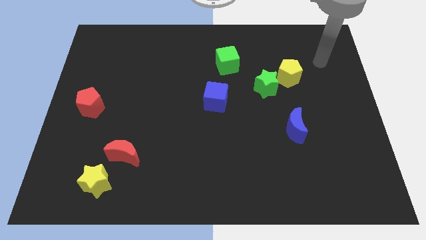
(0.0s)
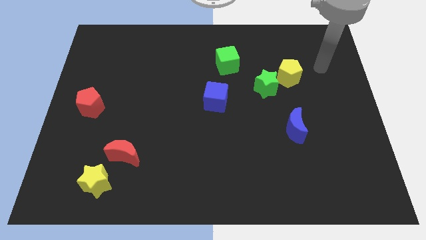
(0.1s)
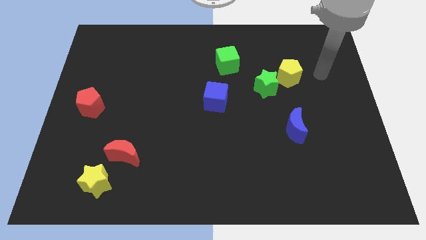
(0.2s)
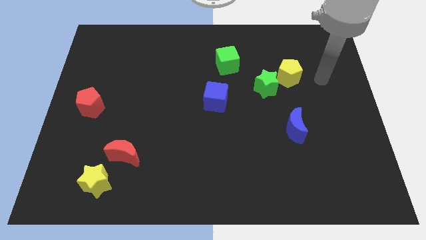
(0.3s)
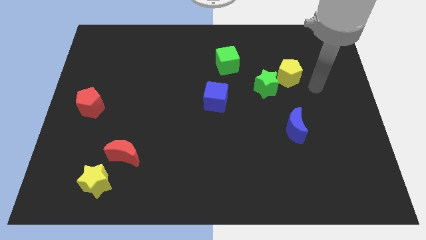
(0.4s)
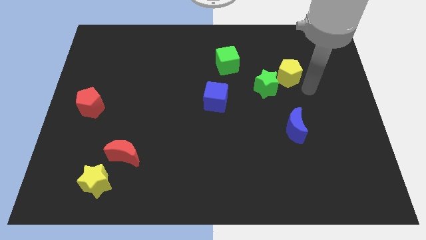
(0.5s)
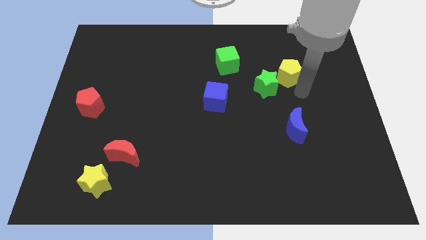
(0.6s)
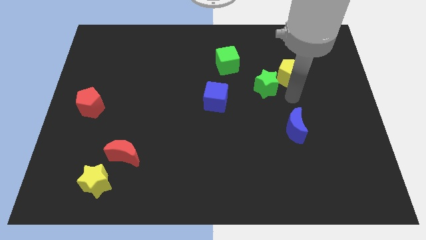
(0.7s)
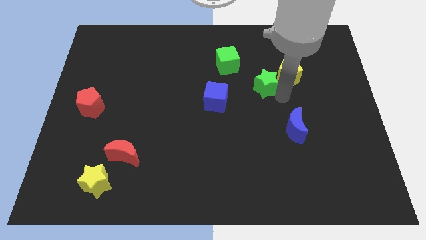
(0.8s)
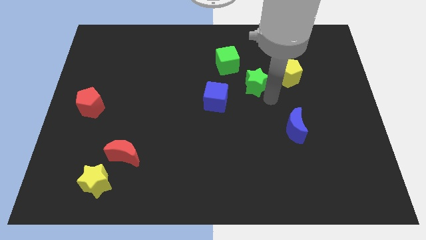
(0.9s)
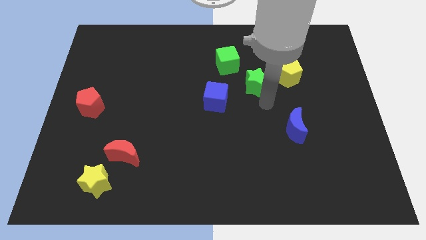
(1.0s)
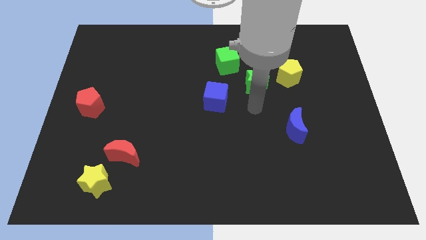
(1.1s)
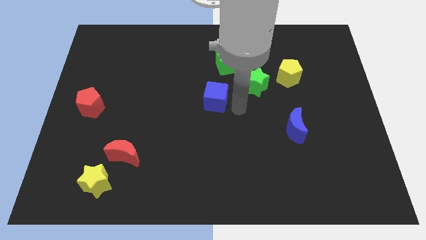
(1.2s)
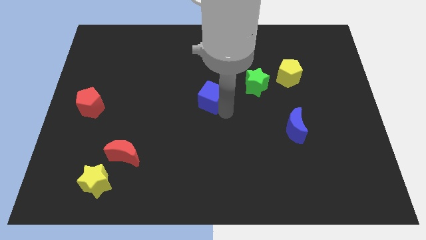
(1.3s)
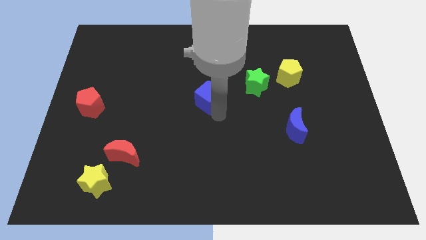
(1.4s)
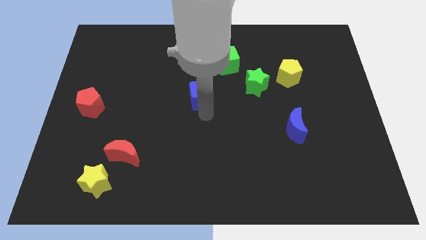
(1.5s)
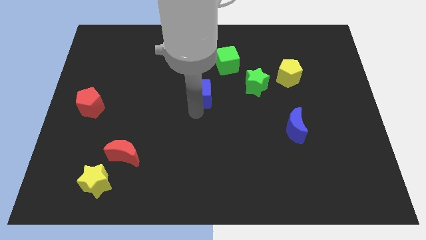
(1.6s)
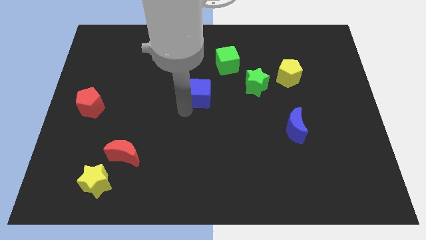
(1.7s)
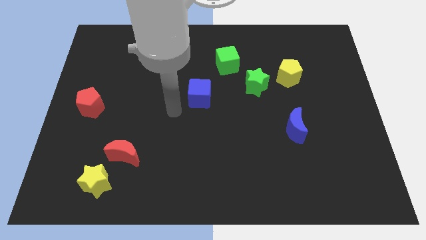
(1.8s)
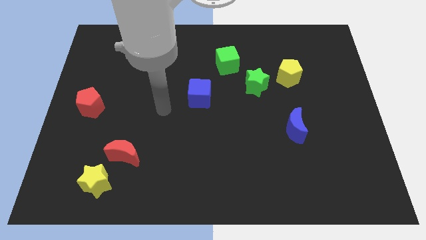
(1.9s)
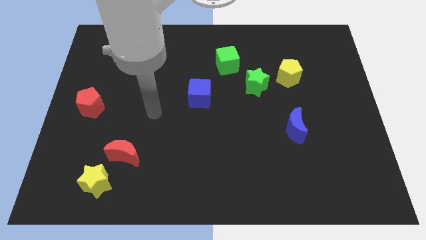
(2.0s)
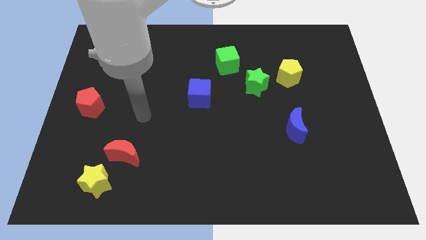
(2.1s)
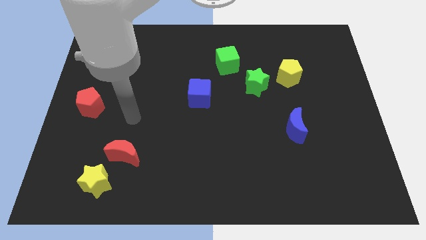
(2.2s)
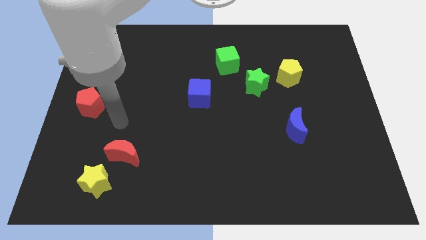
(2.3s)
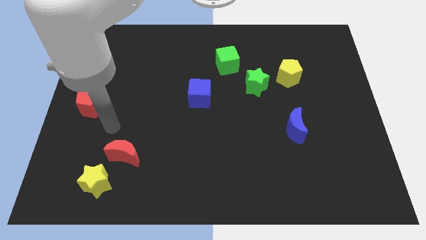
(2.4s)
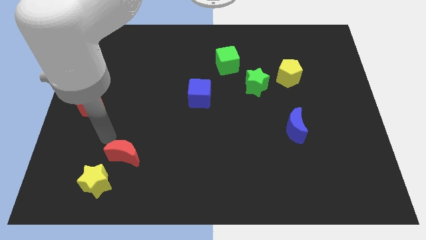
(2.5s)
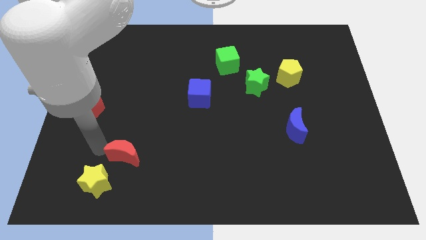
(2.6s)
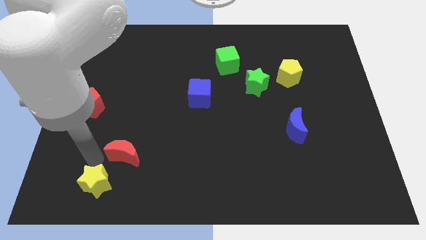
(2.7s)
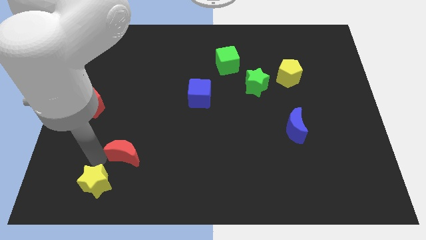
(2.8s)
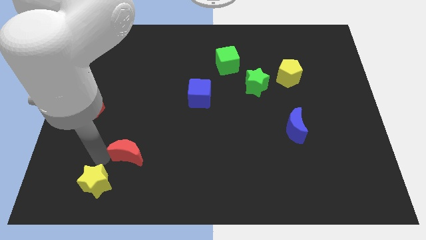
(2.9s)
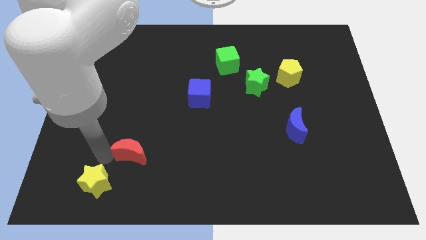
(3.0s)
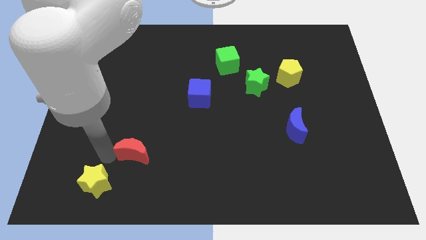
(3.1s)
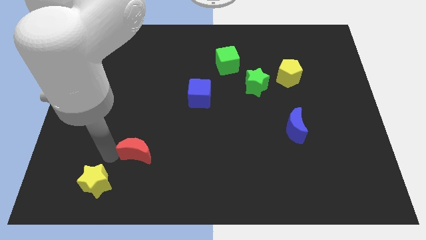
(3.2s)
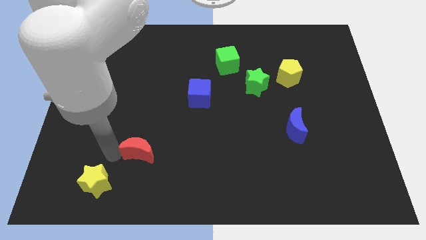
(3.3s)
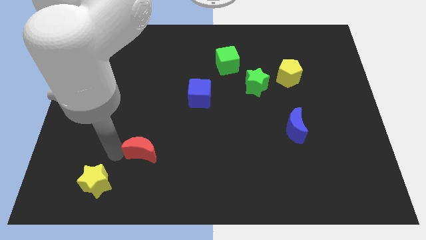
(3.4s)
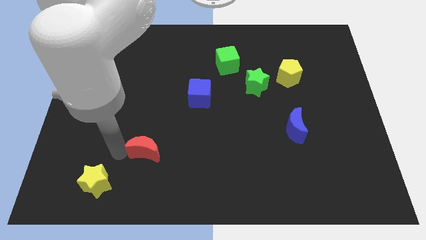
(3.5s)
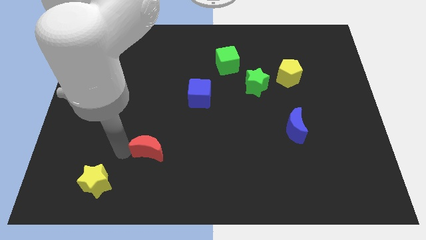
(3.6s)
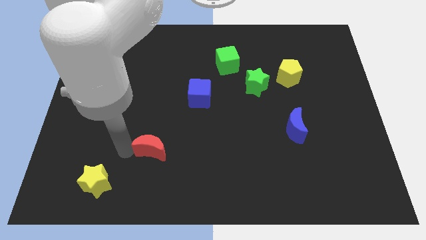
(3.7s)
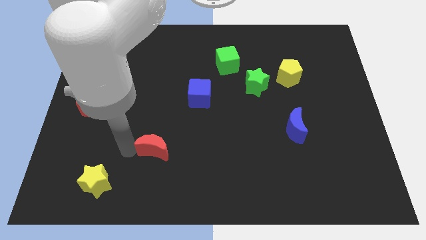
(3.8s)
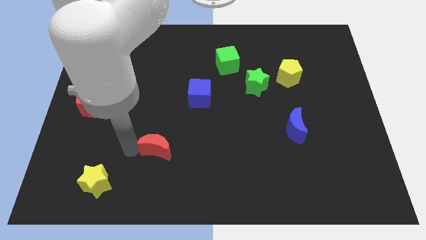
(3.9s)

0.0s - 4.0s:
slide the red moon a bit right

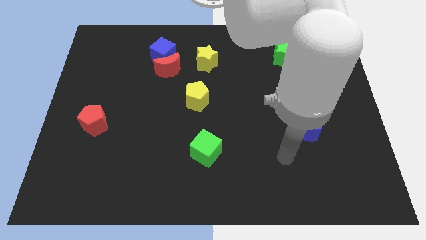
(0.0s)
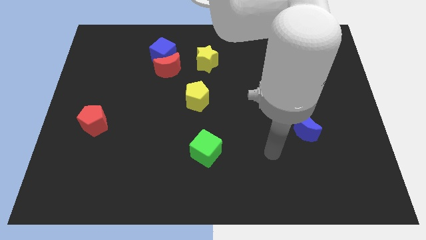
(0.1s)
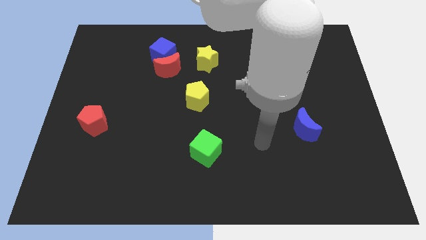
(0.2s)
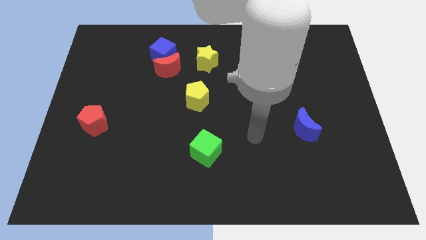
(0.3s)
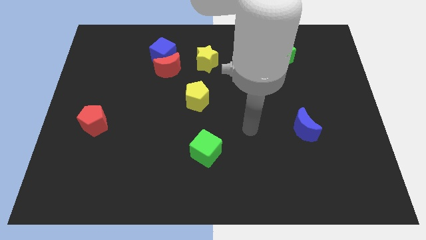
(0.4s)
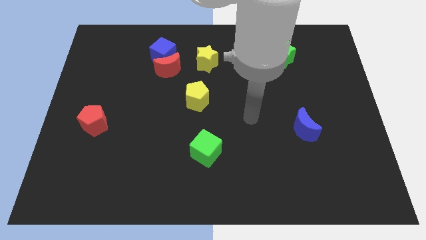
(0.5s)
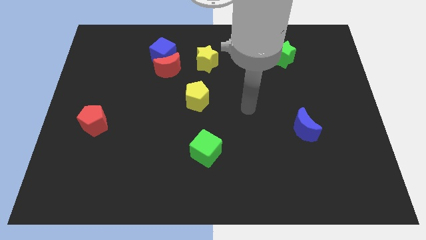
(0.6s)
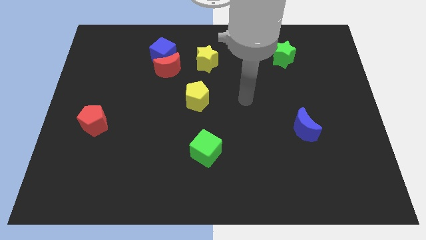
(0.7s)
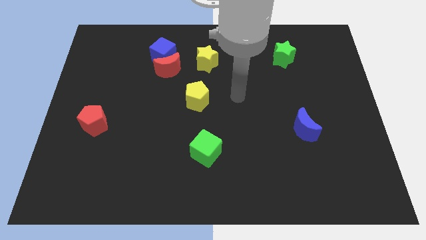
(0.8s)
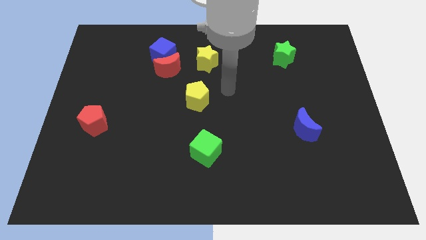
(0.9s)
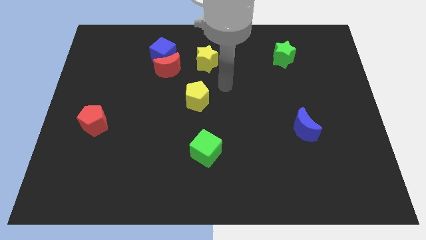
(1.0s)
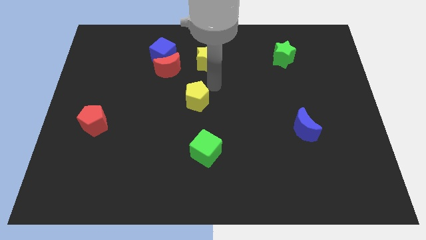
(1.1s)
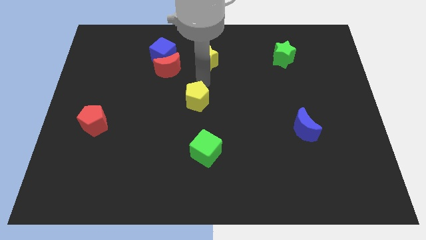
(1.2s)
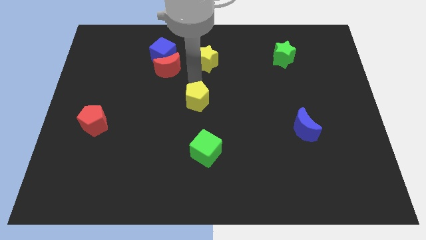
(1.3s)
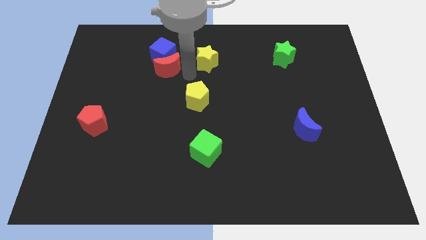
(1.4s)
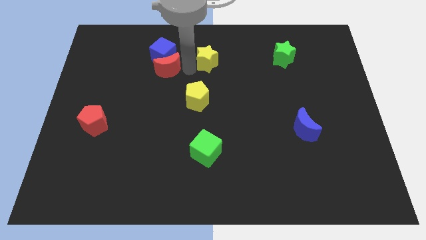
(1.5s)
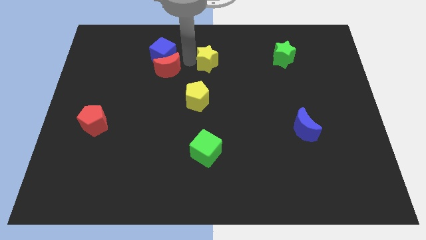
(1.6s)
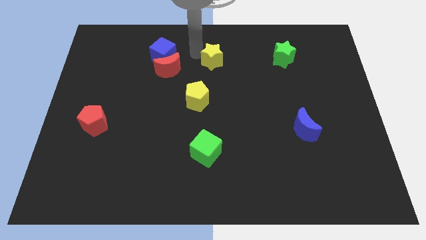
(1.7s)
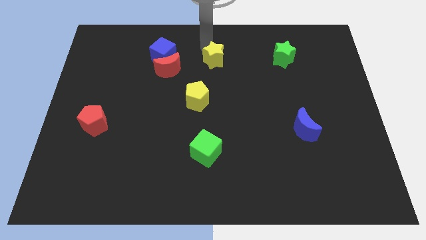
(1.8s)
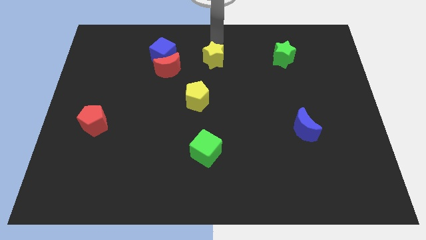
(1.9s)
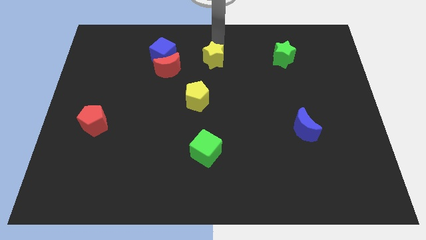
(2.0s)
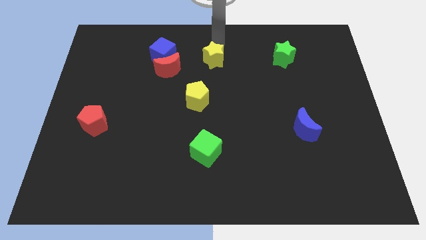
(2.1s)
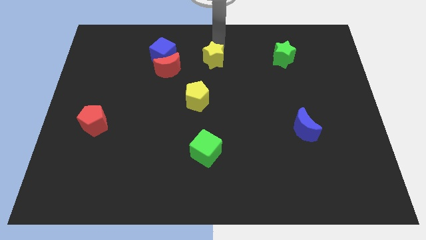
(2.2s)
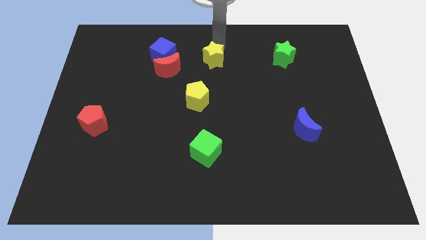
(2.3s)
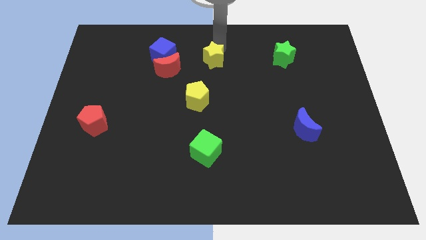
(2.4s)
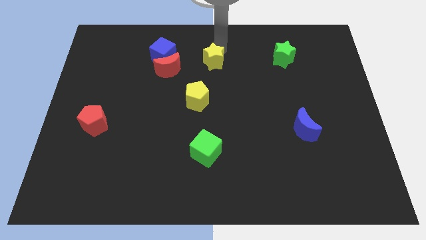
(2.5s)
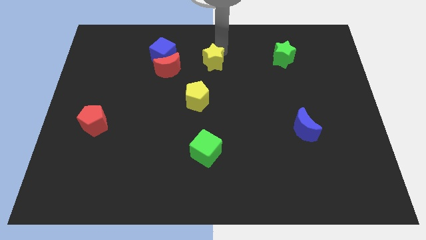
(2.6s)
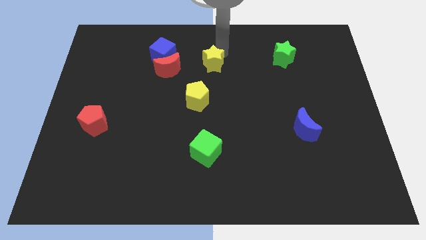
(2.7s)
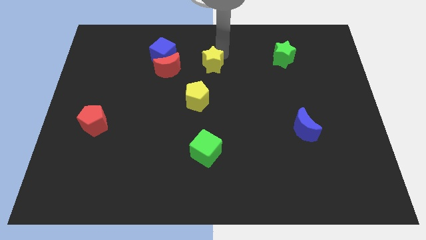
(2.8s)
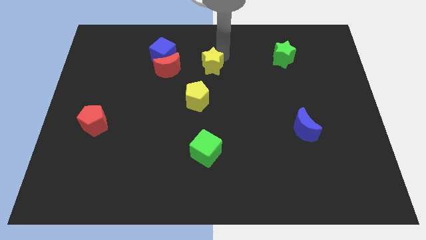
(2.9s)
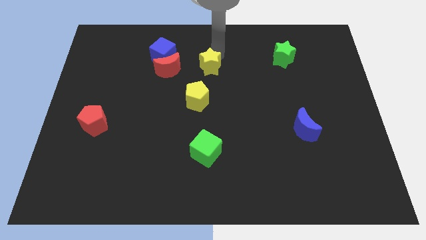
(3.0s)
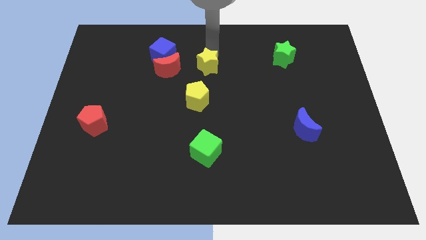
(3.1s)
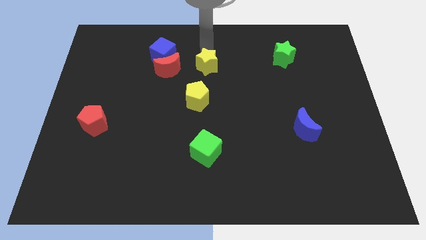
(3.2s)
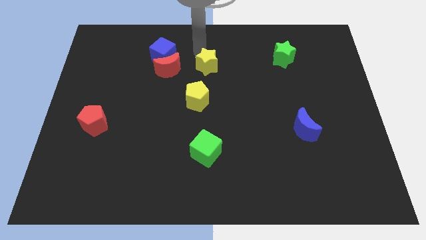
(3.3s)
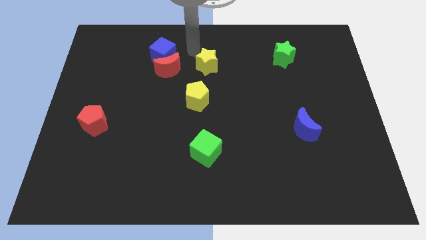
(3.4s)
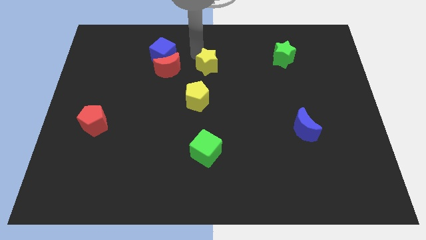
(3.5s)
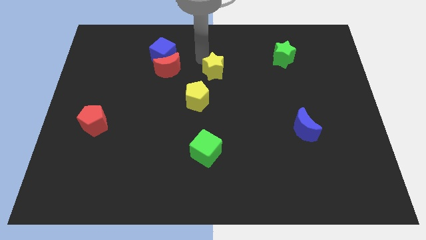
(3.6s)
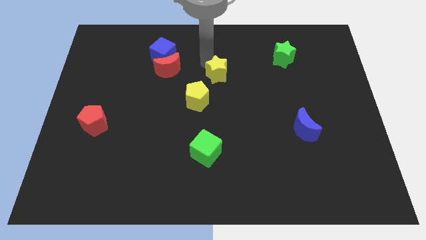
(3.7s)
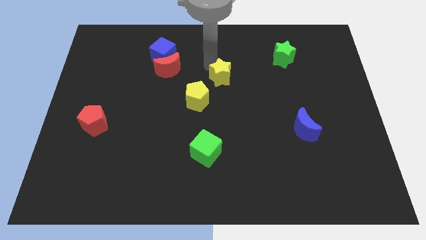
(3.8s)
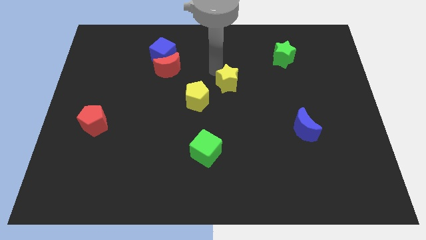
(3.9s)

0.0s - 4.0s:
slightly push the yellow star downwards and to the right

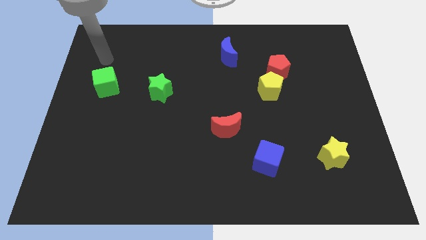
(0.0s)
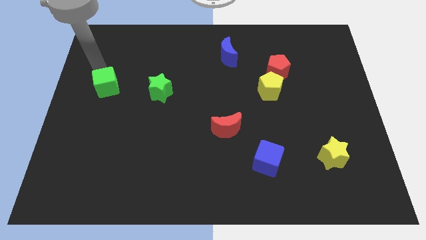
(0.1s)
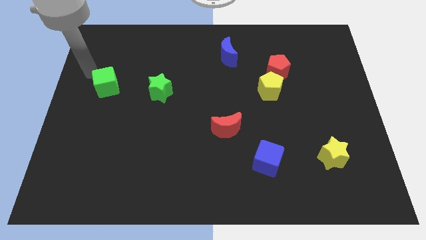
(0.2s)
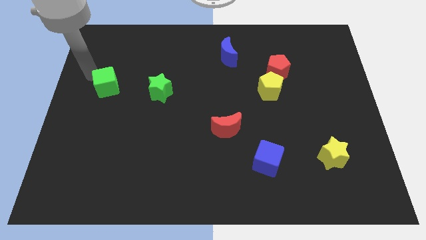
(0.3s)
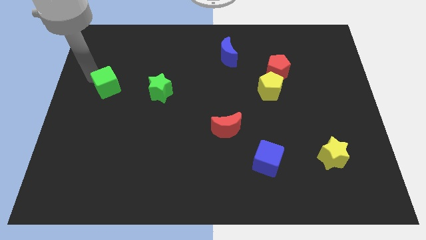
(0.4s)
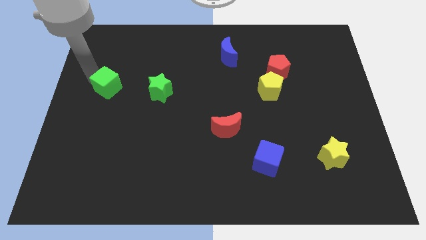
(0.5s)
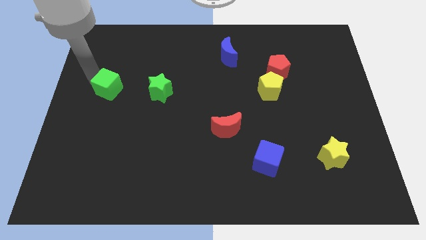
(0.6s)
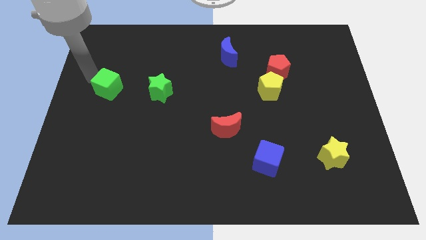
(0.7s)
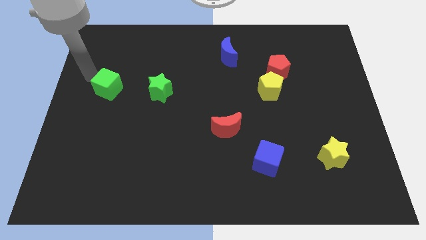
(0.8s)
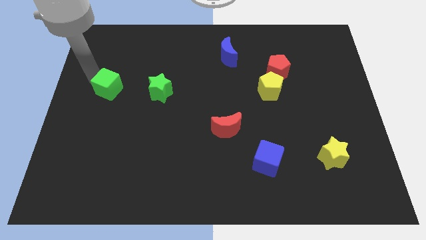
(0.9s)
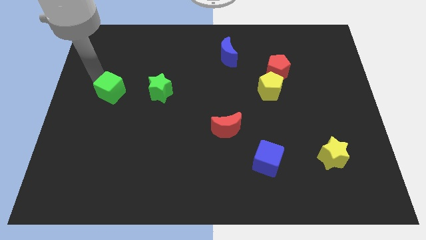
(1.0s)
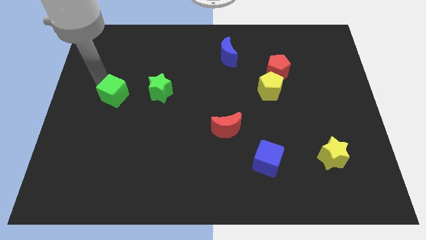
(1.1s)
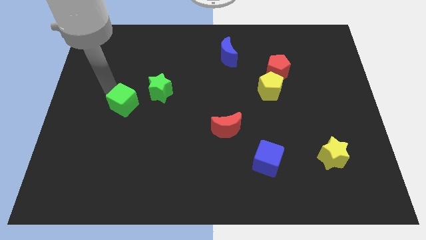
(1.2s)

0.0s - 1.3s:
move the green cube a bit diagonally down and right
